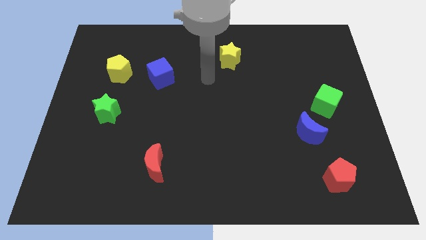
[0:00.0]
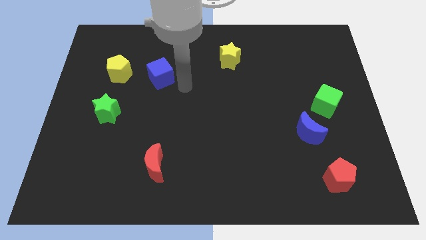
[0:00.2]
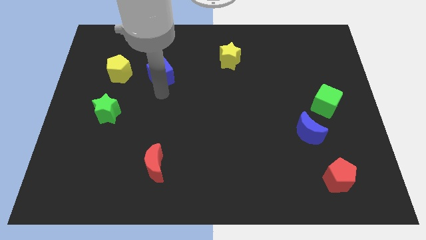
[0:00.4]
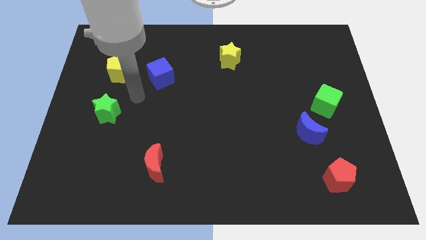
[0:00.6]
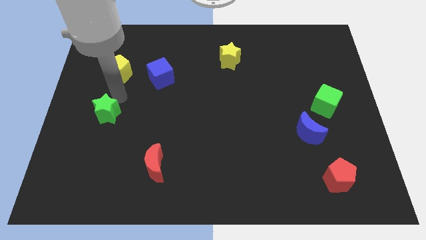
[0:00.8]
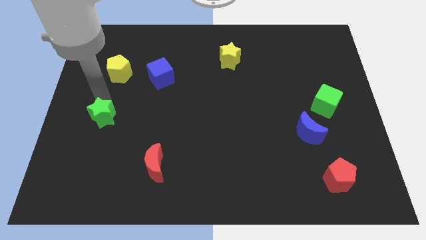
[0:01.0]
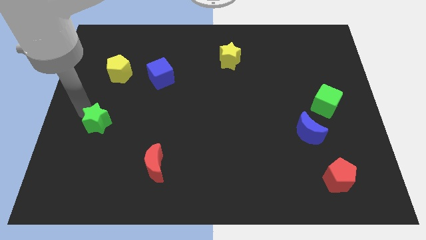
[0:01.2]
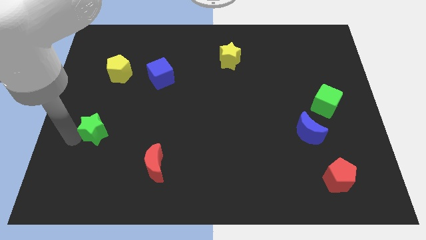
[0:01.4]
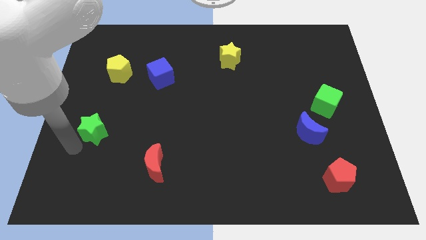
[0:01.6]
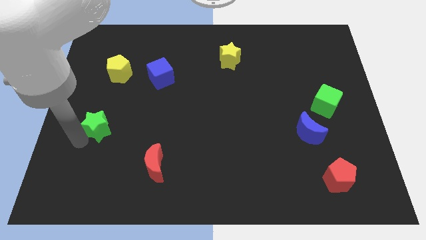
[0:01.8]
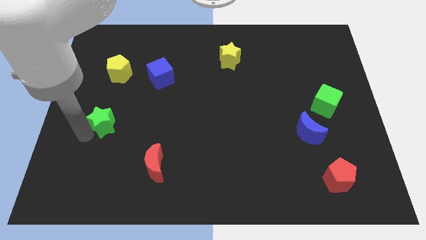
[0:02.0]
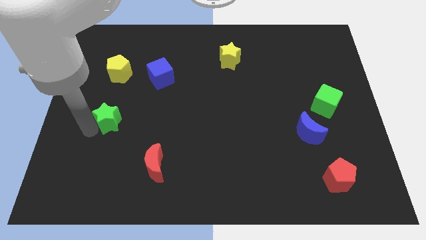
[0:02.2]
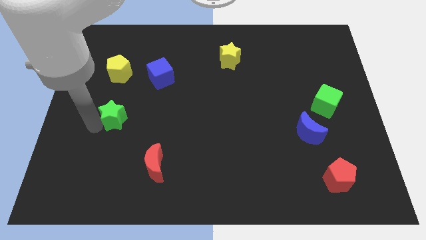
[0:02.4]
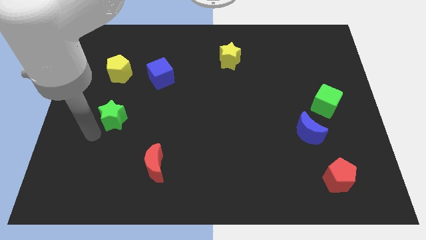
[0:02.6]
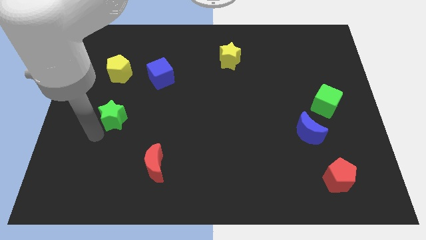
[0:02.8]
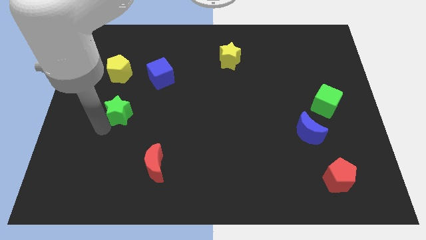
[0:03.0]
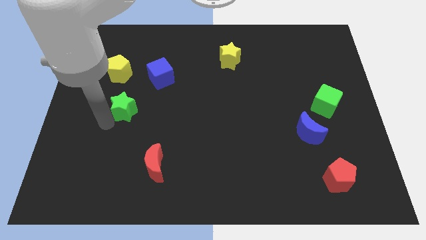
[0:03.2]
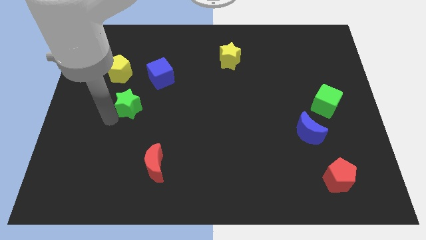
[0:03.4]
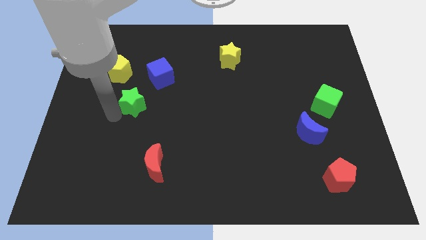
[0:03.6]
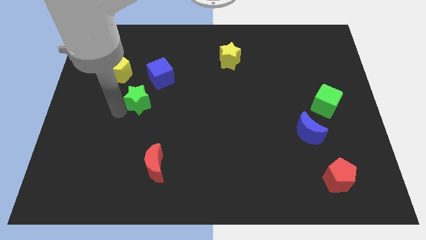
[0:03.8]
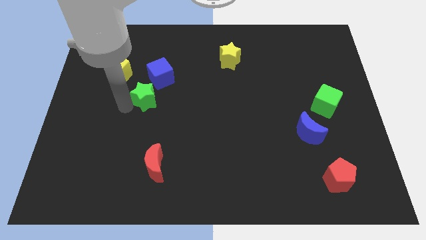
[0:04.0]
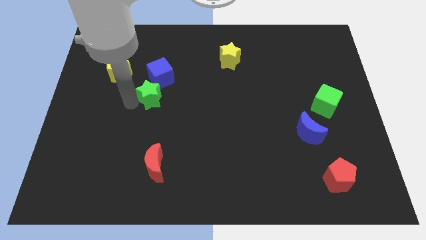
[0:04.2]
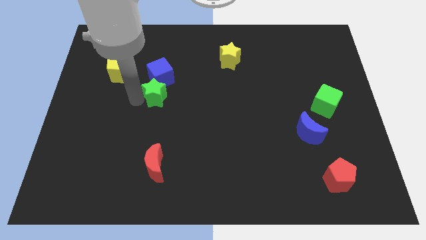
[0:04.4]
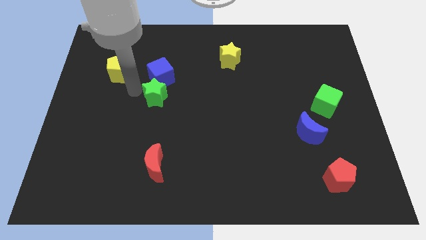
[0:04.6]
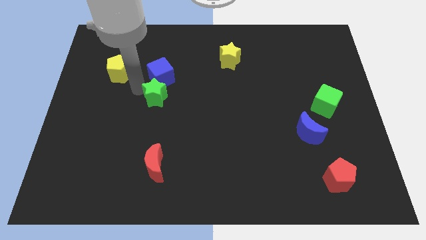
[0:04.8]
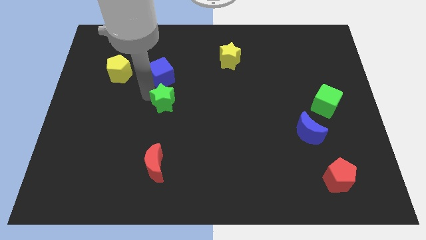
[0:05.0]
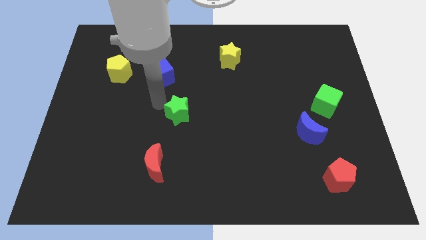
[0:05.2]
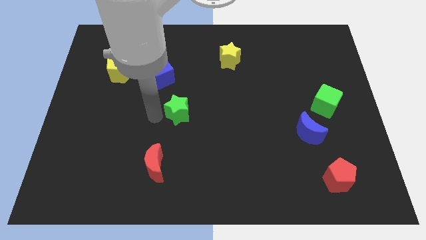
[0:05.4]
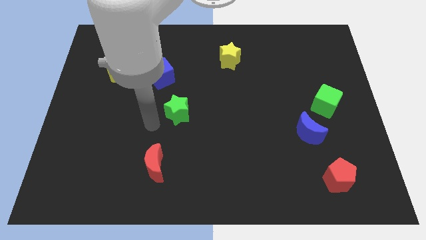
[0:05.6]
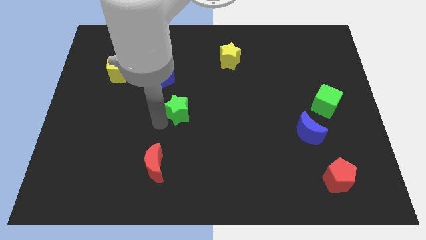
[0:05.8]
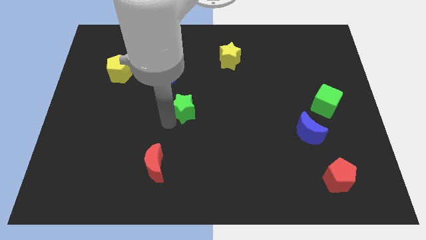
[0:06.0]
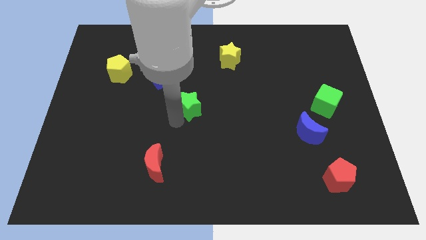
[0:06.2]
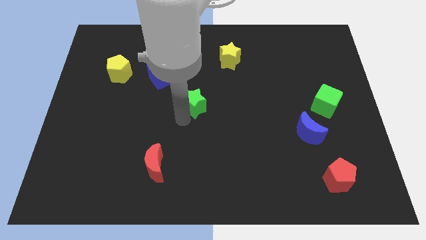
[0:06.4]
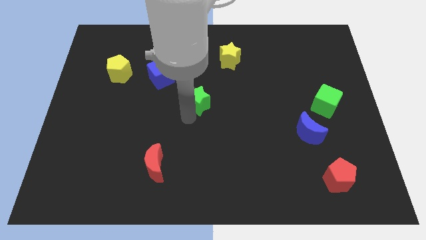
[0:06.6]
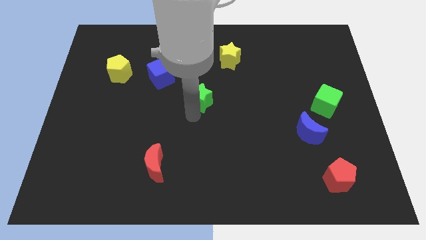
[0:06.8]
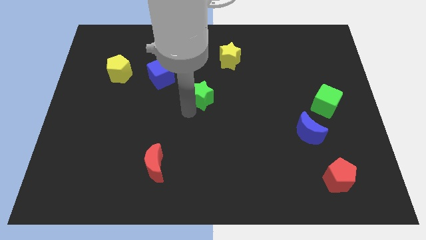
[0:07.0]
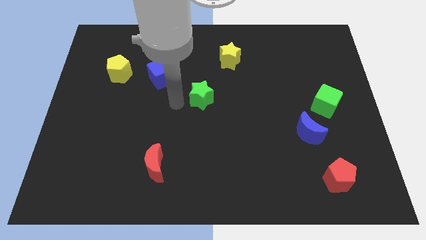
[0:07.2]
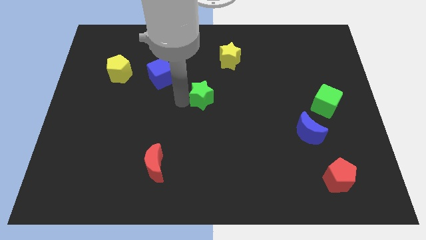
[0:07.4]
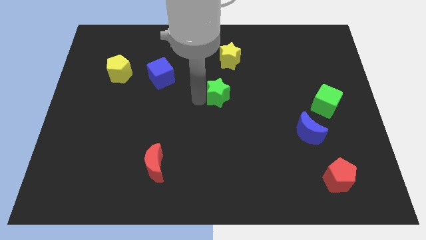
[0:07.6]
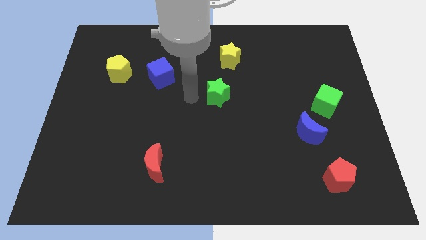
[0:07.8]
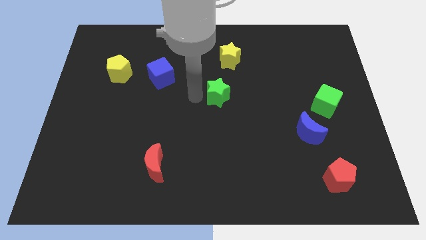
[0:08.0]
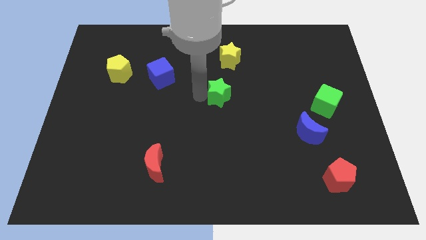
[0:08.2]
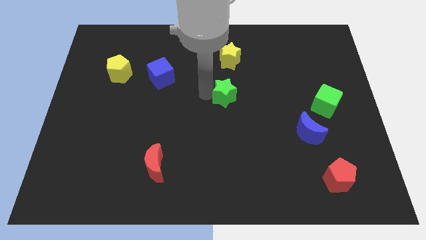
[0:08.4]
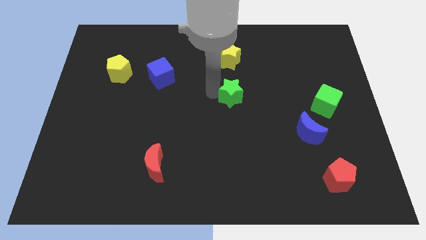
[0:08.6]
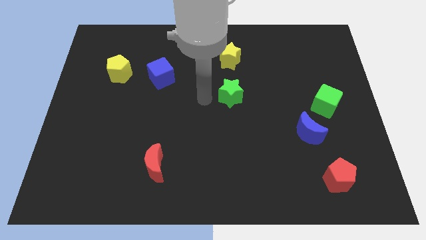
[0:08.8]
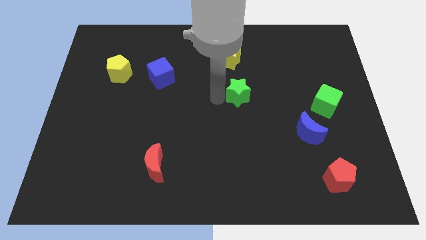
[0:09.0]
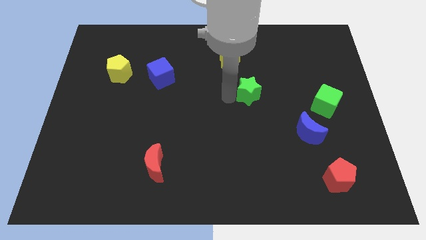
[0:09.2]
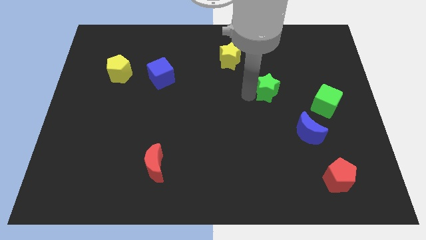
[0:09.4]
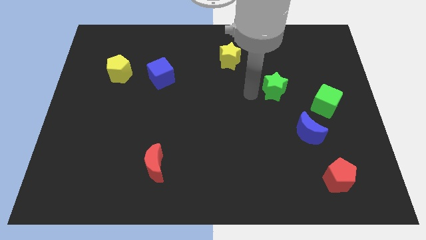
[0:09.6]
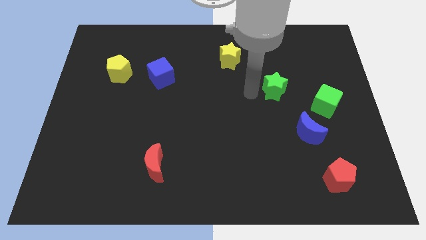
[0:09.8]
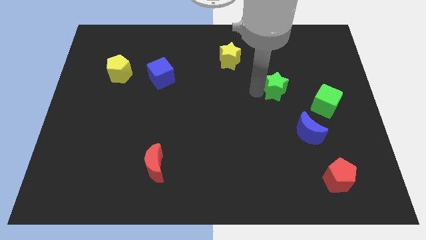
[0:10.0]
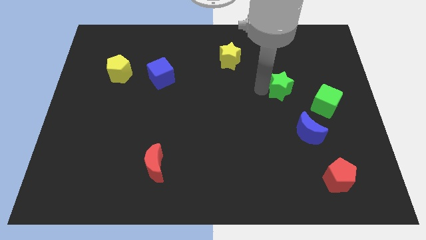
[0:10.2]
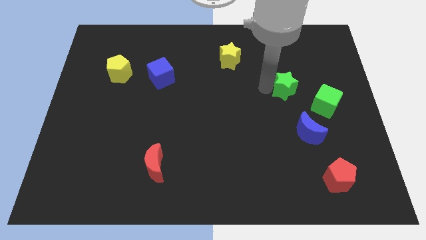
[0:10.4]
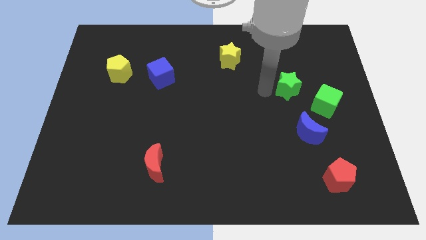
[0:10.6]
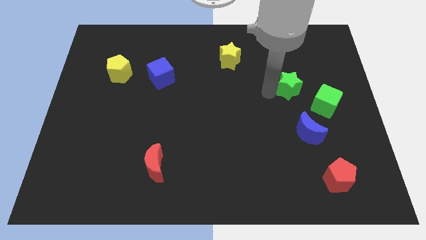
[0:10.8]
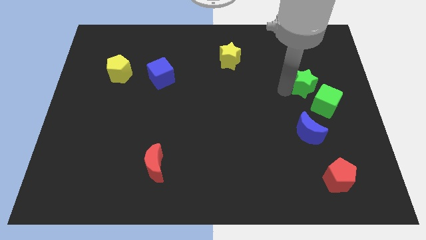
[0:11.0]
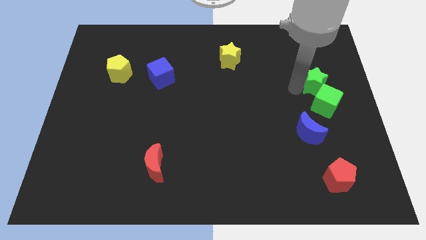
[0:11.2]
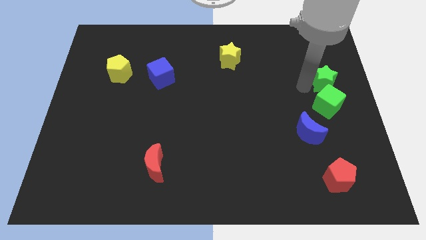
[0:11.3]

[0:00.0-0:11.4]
put the green star to the right side of the board
